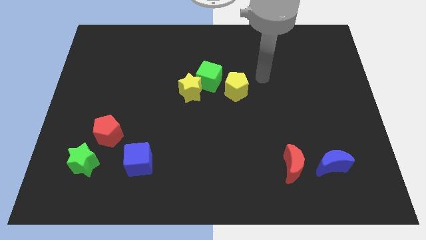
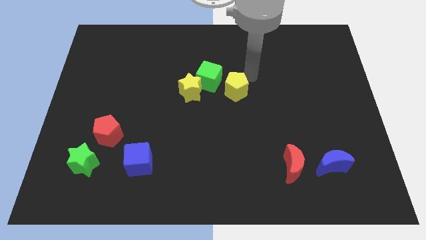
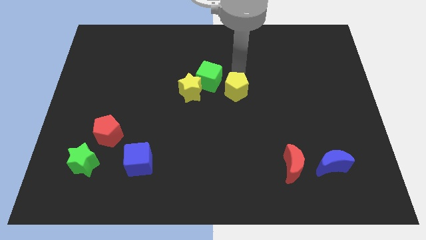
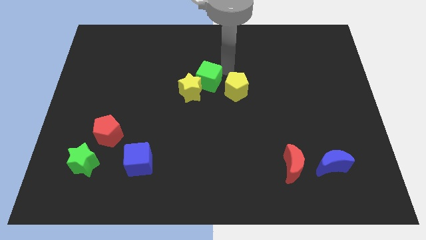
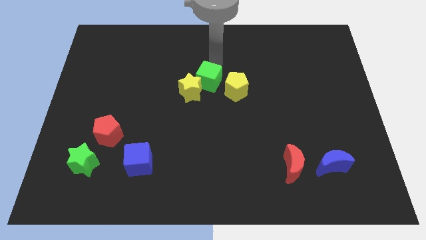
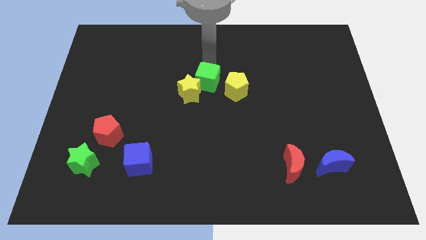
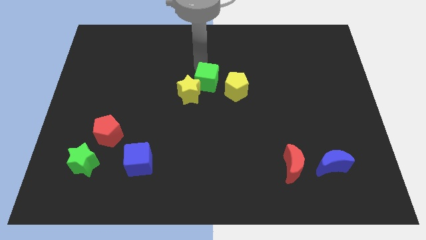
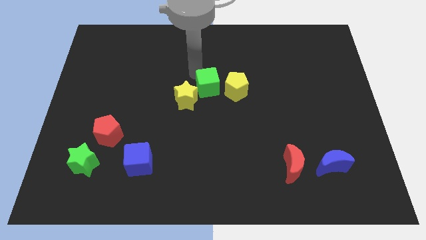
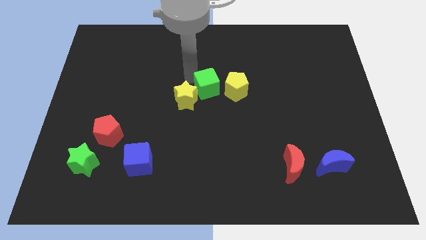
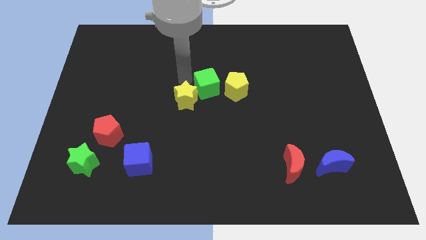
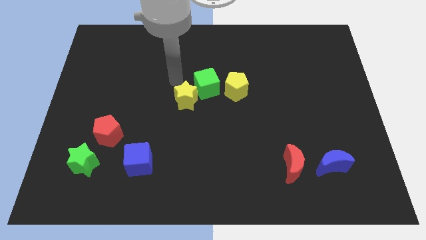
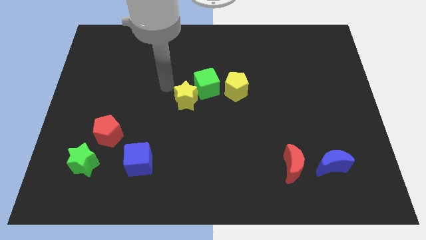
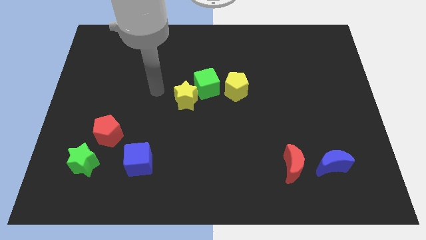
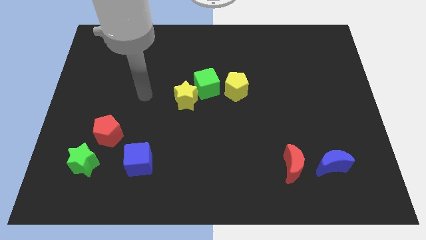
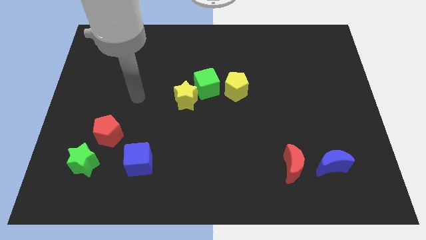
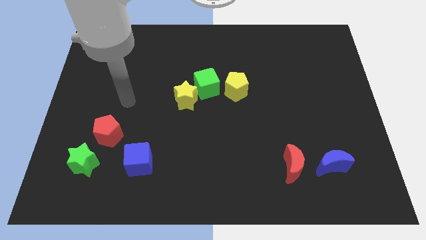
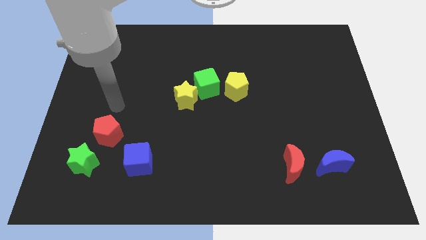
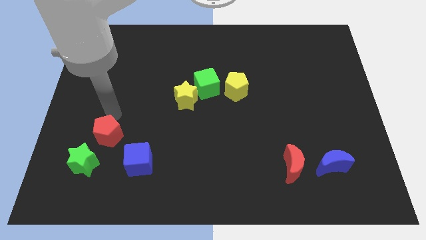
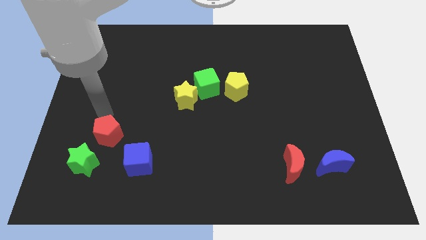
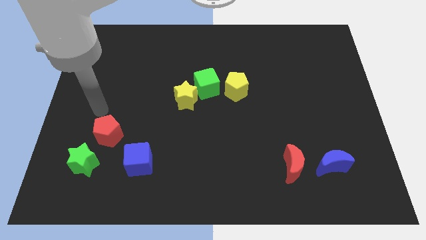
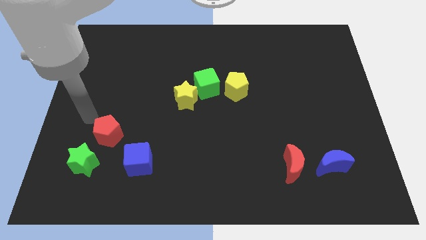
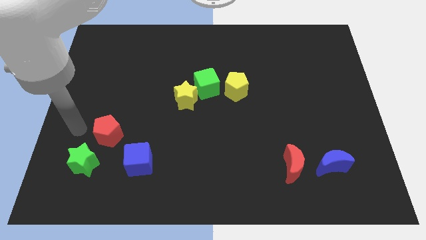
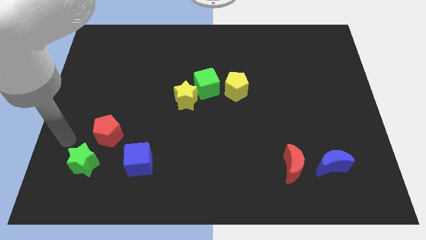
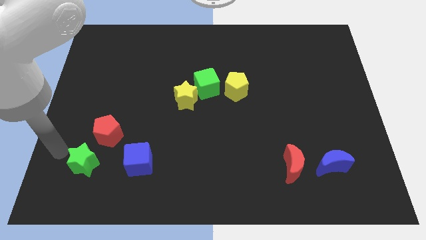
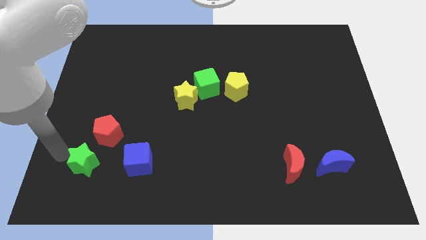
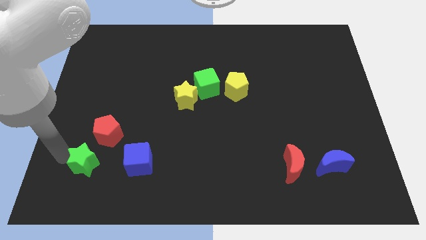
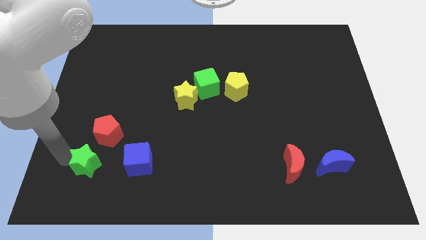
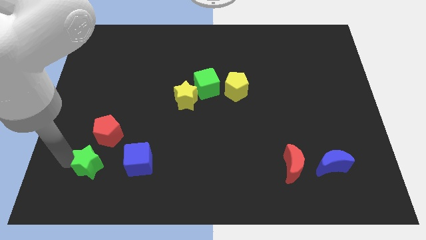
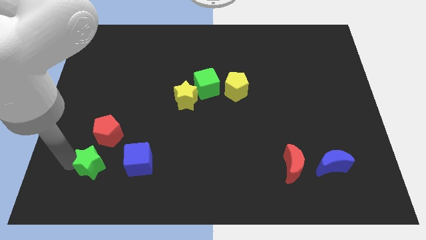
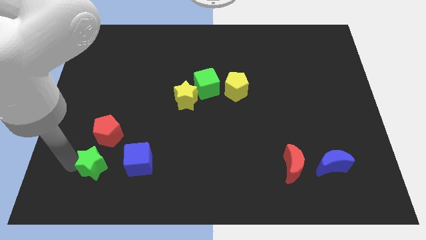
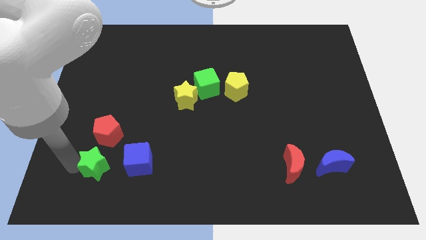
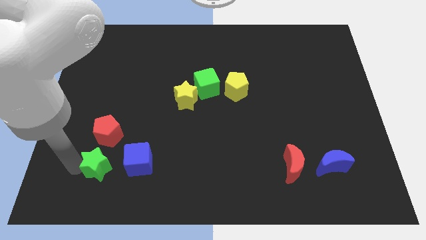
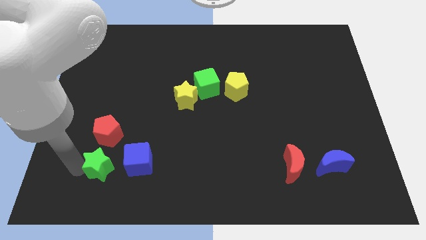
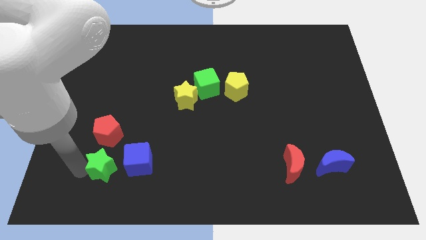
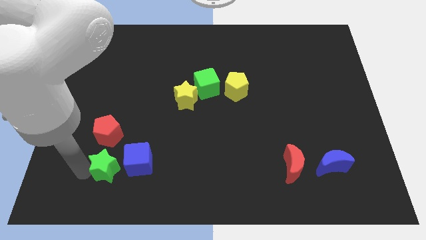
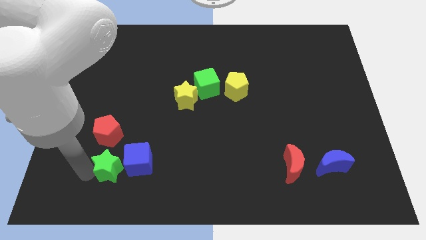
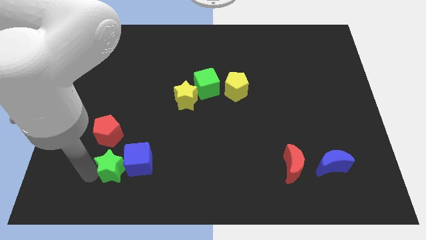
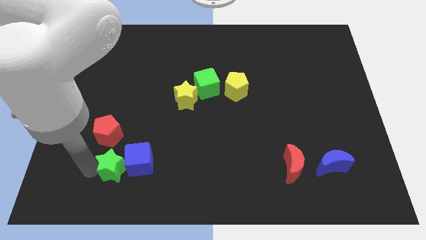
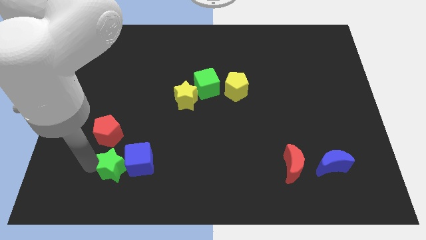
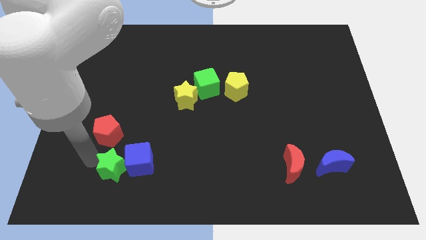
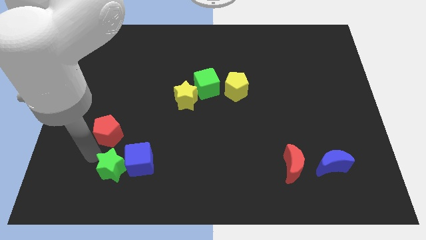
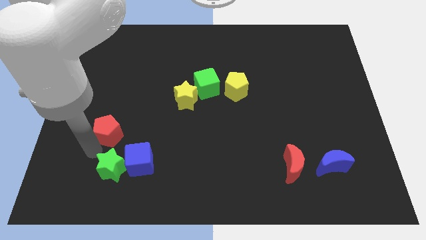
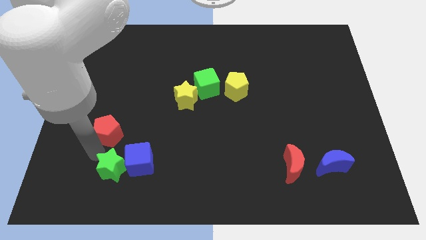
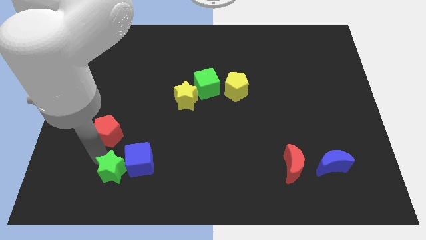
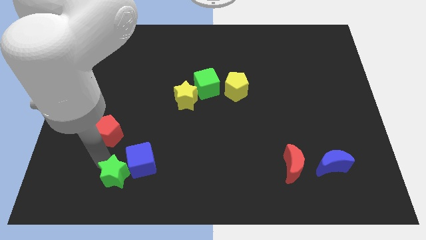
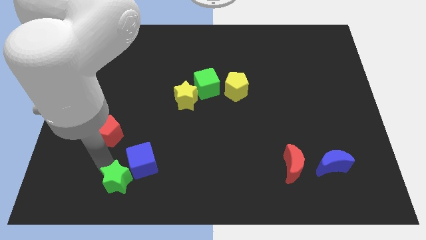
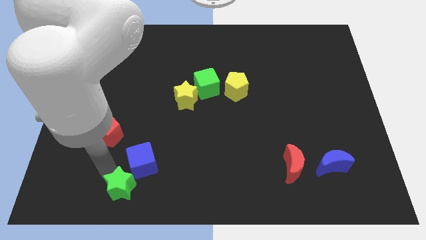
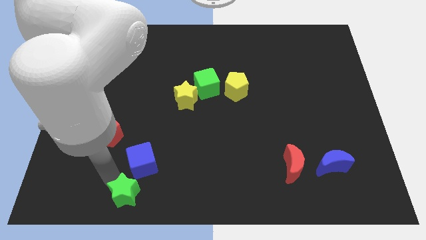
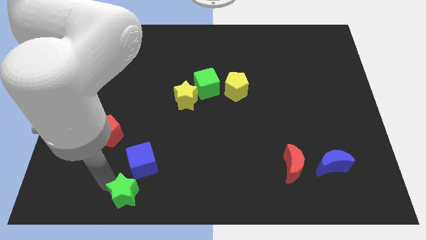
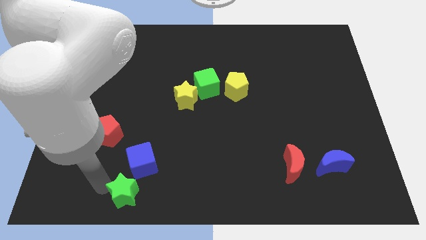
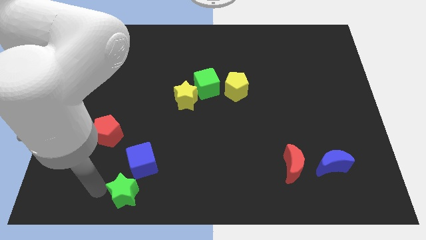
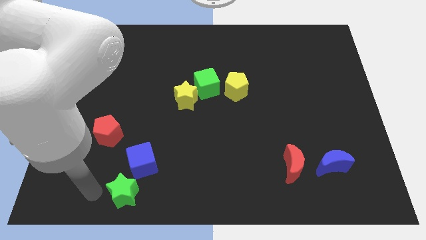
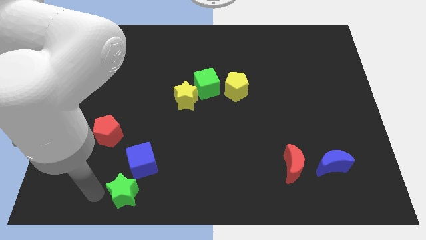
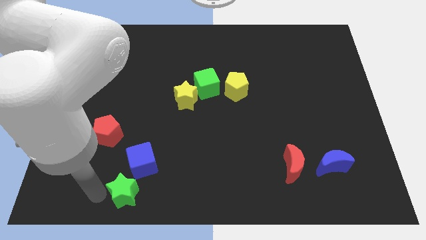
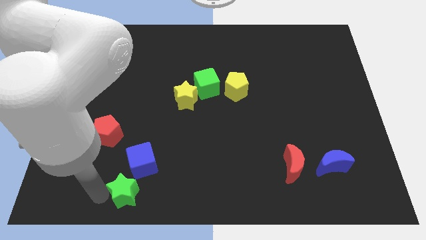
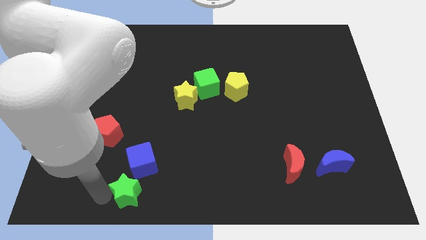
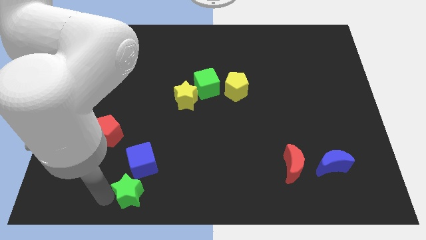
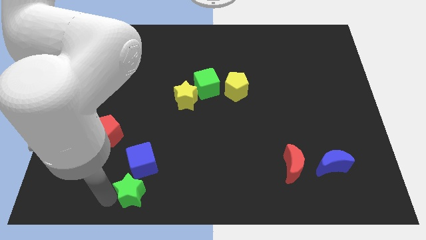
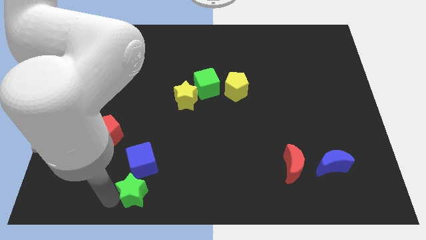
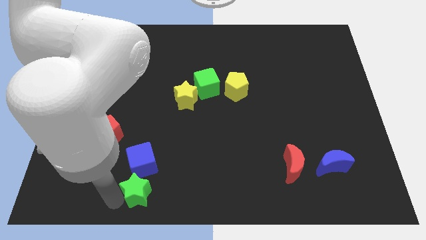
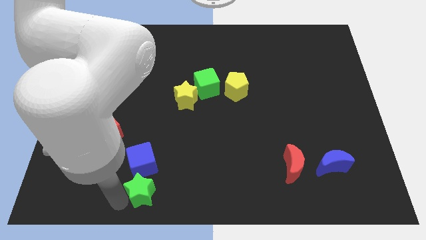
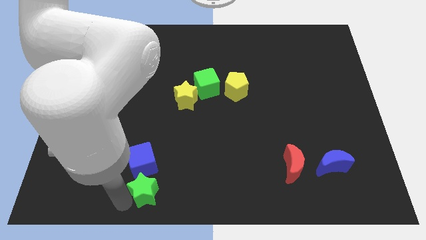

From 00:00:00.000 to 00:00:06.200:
push the green star to the bottom side
